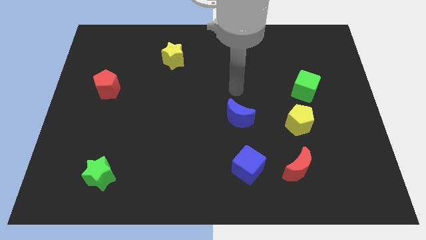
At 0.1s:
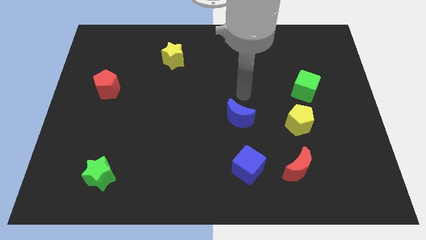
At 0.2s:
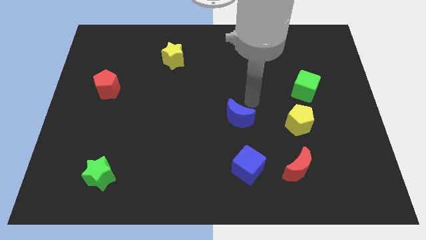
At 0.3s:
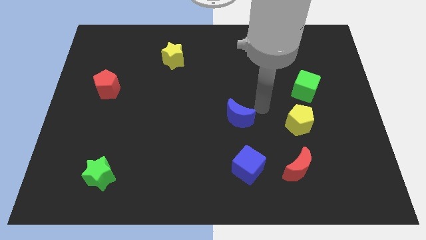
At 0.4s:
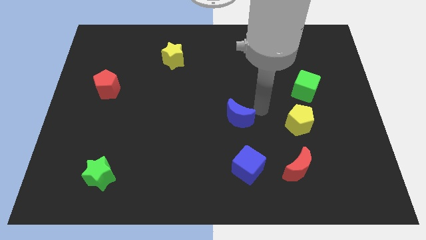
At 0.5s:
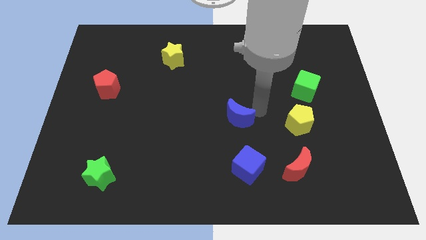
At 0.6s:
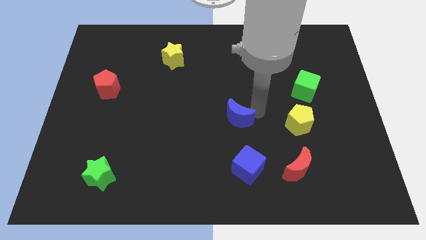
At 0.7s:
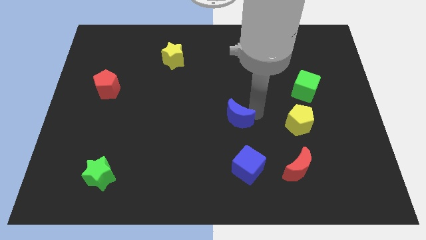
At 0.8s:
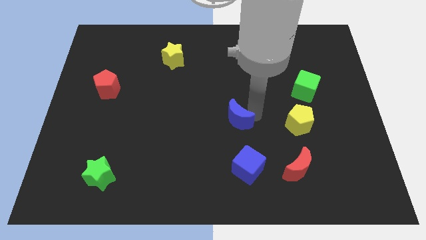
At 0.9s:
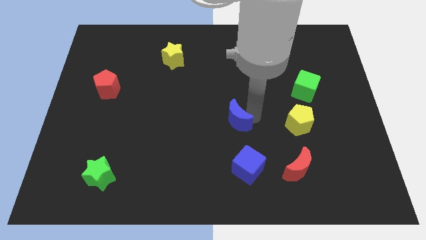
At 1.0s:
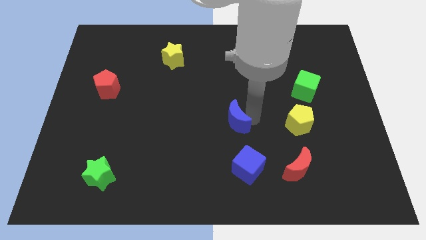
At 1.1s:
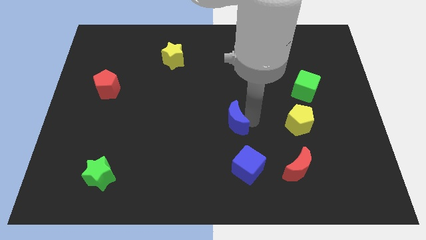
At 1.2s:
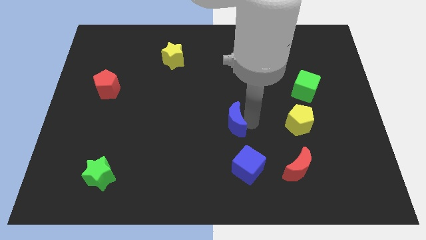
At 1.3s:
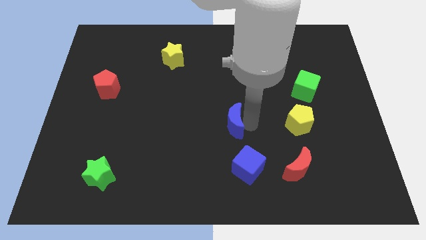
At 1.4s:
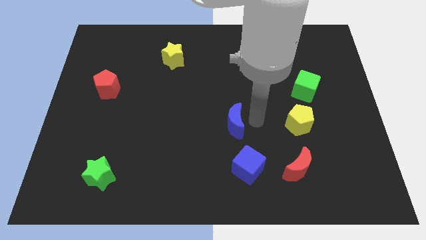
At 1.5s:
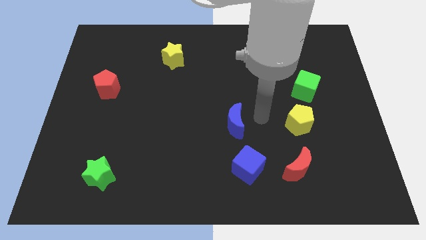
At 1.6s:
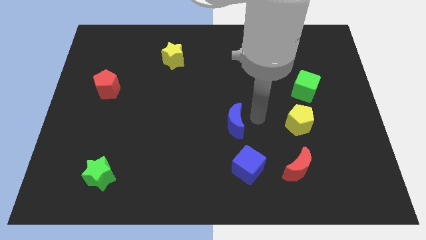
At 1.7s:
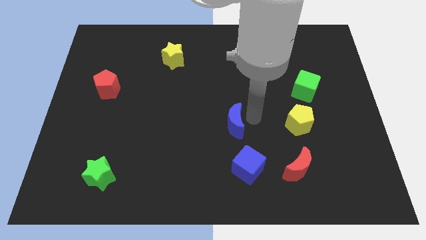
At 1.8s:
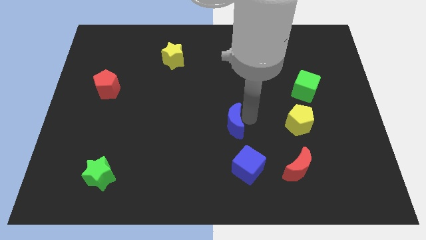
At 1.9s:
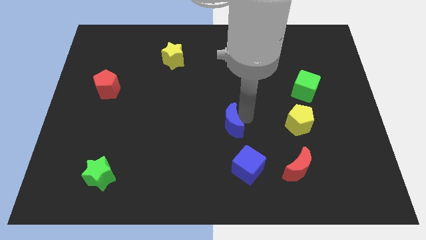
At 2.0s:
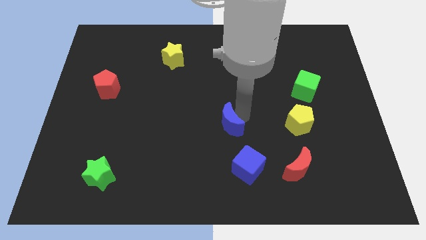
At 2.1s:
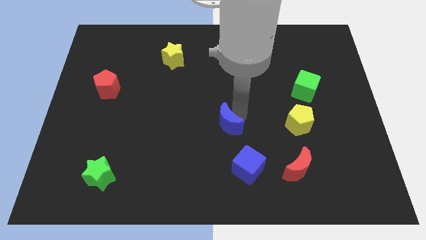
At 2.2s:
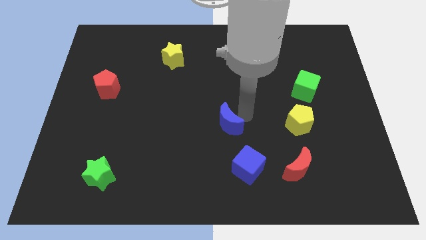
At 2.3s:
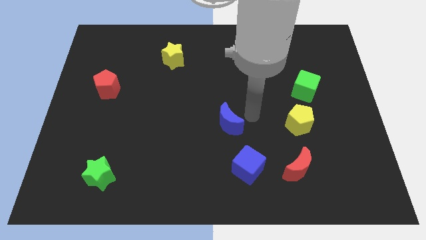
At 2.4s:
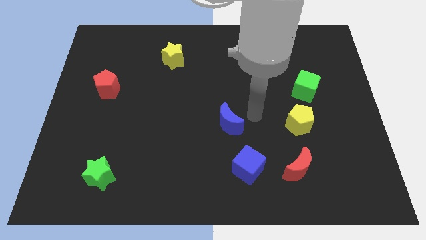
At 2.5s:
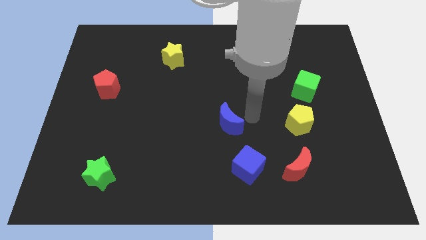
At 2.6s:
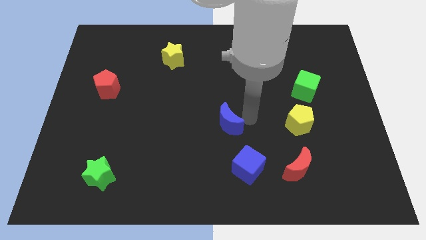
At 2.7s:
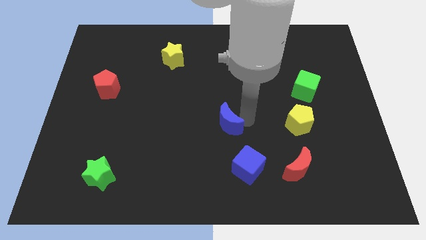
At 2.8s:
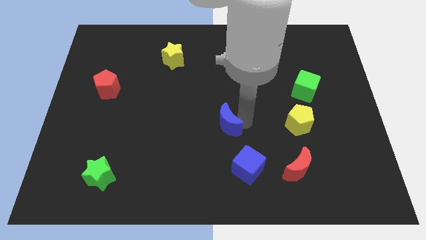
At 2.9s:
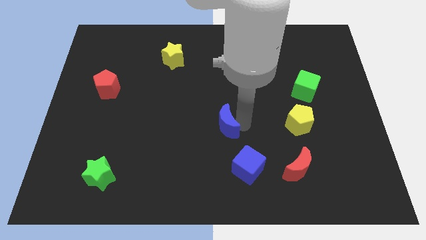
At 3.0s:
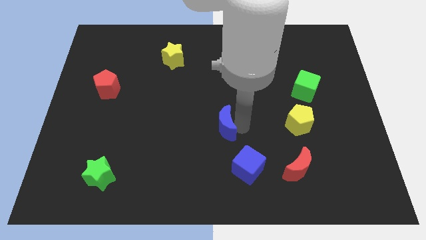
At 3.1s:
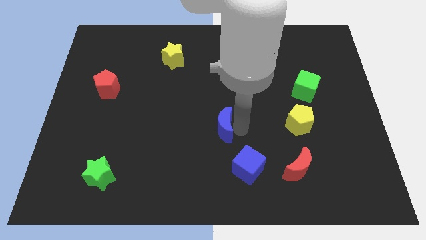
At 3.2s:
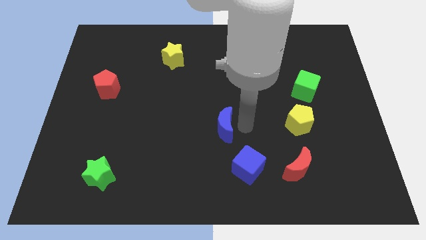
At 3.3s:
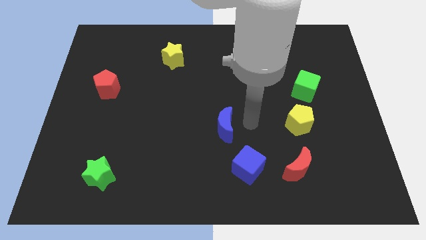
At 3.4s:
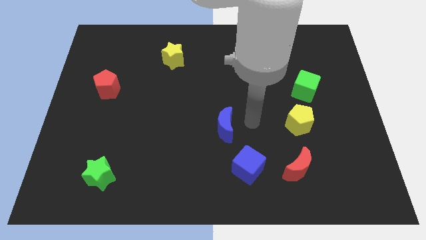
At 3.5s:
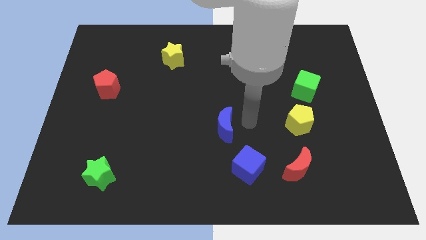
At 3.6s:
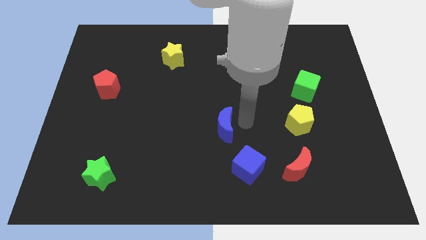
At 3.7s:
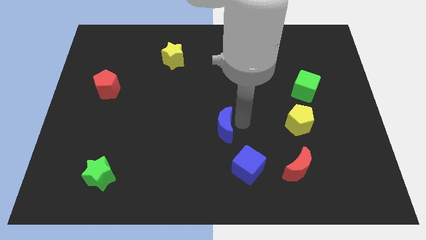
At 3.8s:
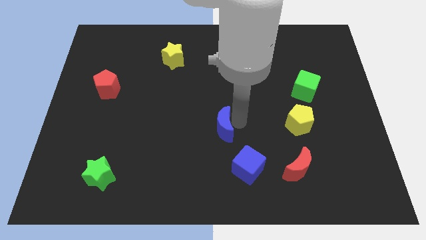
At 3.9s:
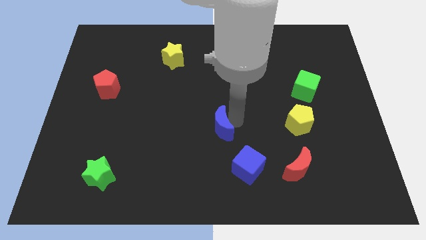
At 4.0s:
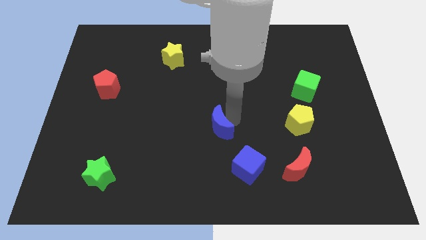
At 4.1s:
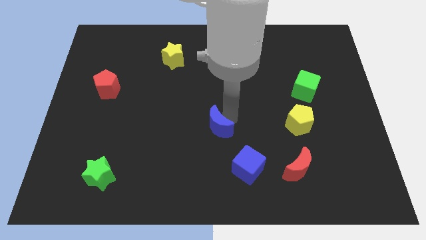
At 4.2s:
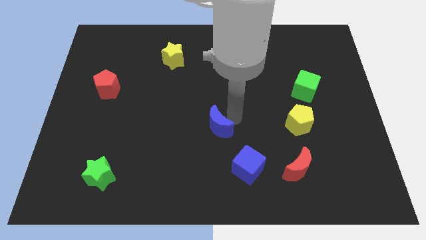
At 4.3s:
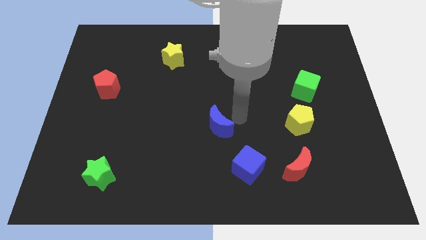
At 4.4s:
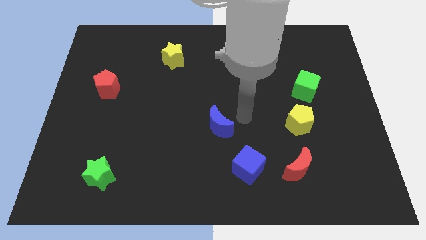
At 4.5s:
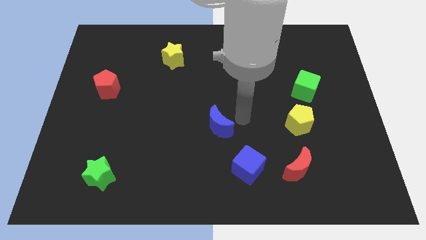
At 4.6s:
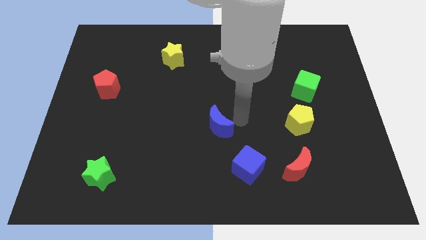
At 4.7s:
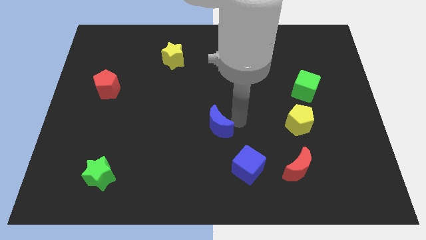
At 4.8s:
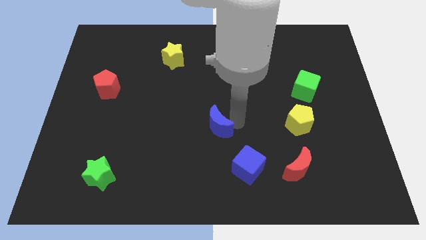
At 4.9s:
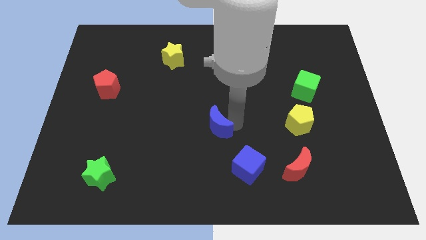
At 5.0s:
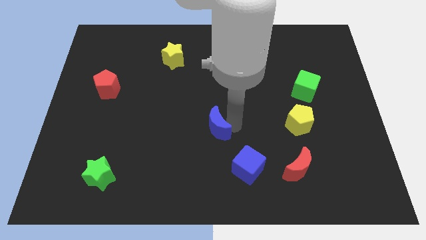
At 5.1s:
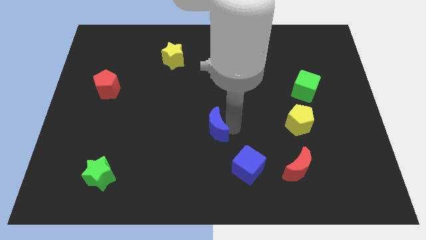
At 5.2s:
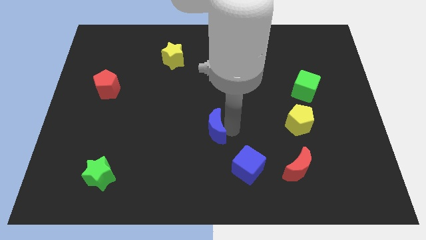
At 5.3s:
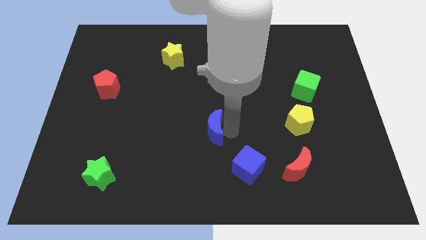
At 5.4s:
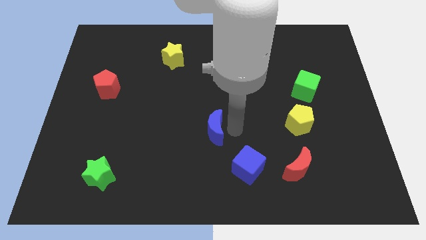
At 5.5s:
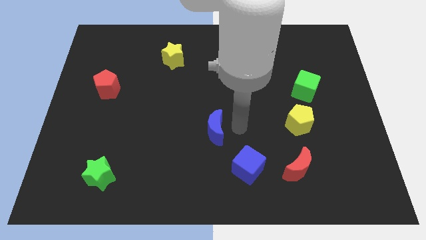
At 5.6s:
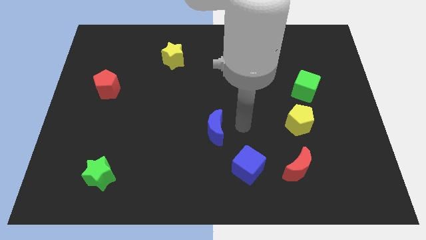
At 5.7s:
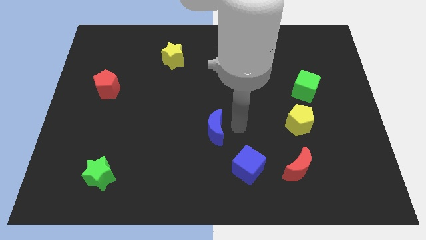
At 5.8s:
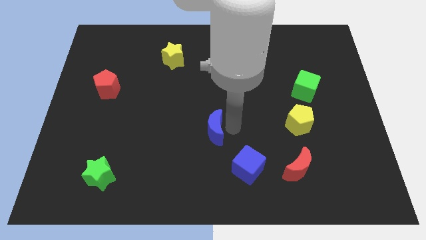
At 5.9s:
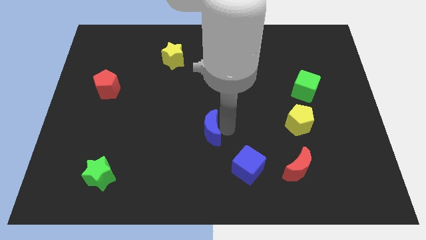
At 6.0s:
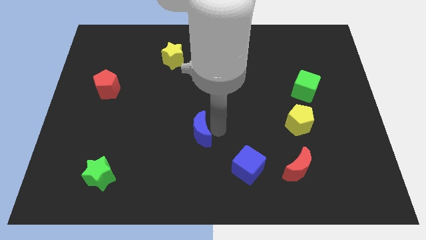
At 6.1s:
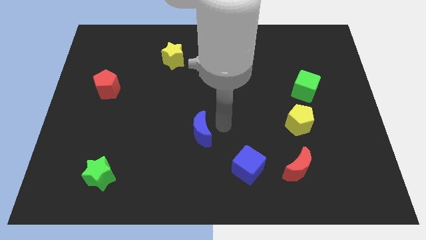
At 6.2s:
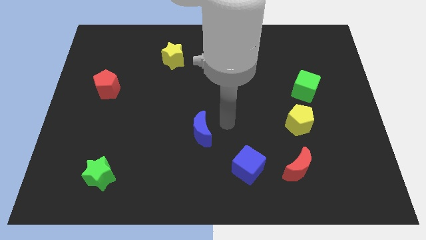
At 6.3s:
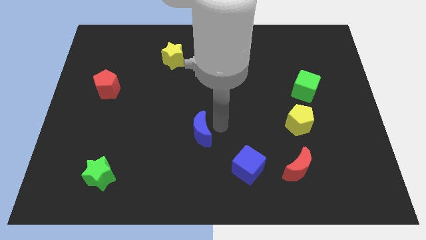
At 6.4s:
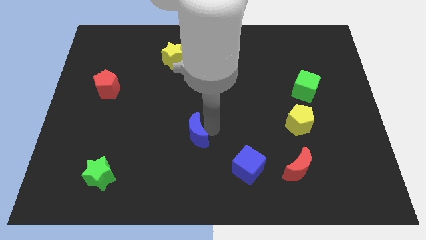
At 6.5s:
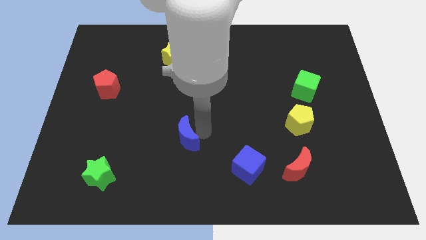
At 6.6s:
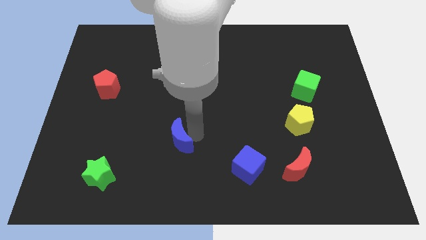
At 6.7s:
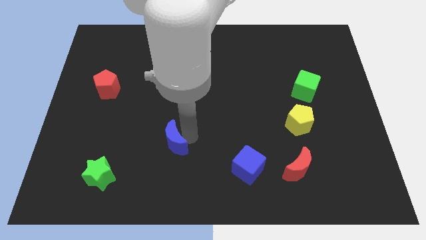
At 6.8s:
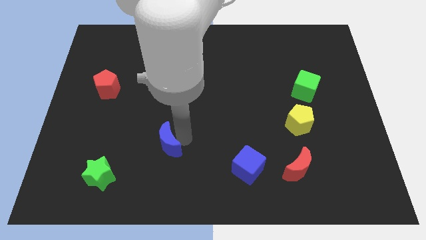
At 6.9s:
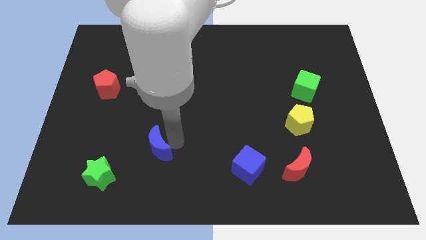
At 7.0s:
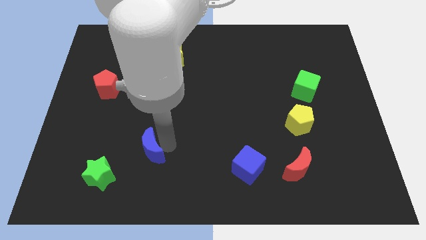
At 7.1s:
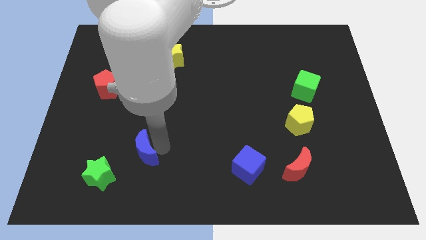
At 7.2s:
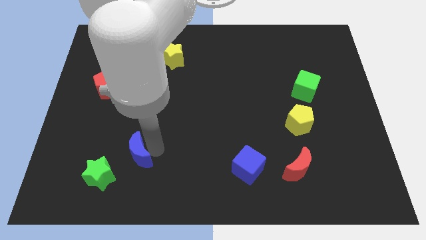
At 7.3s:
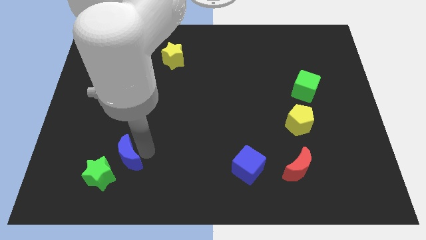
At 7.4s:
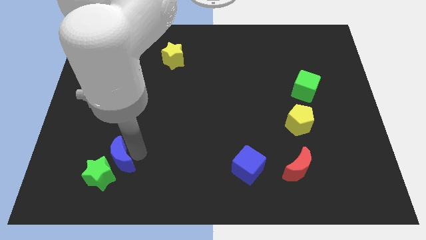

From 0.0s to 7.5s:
move the blue moon towards the green star

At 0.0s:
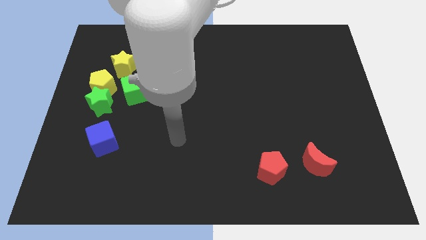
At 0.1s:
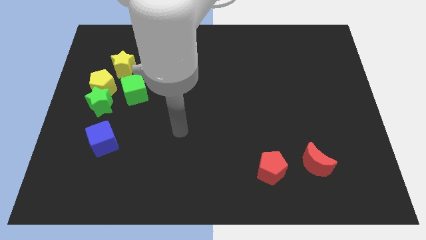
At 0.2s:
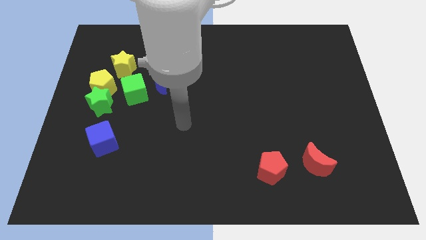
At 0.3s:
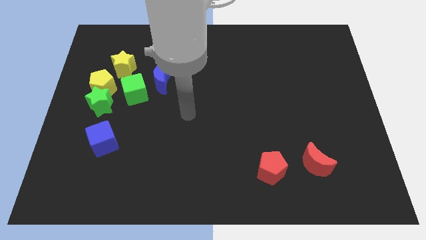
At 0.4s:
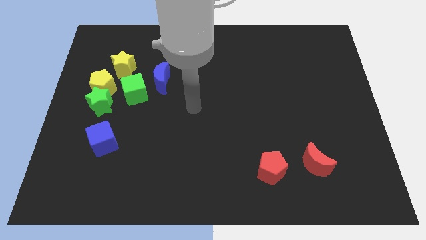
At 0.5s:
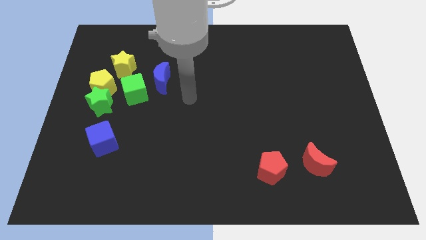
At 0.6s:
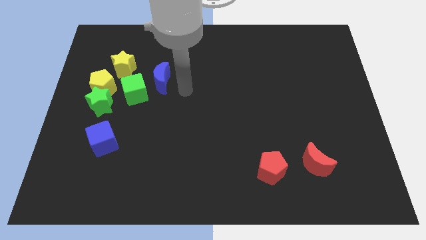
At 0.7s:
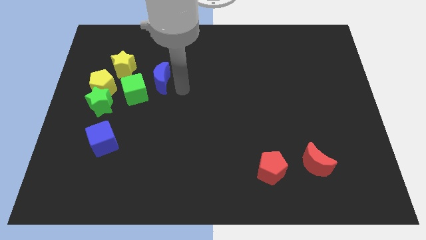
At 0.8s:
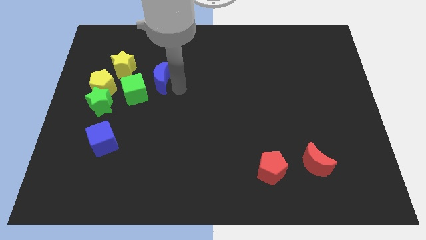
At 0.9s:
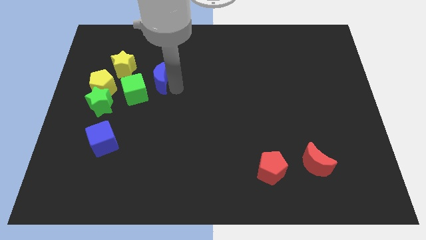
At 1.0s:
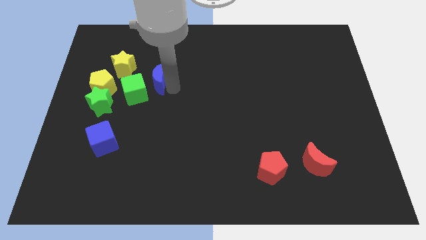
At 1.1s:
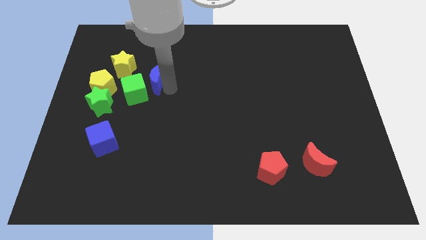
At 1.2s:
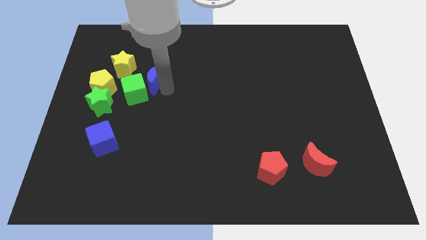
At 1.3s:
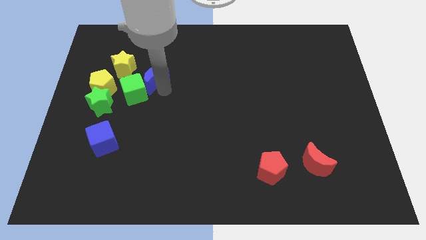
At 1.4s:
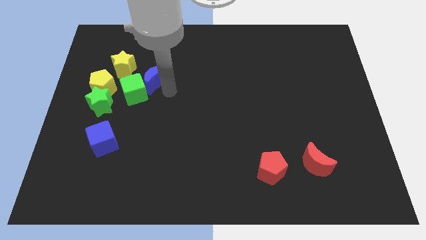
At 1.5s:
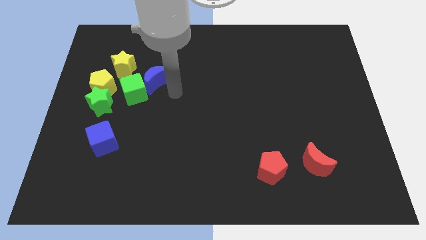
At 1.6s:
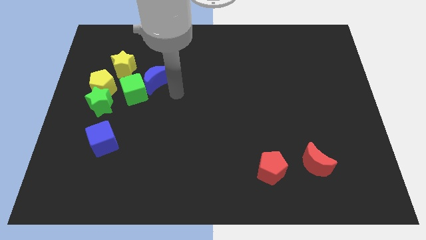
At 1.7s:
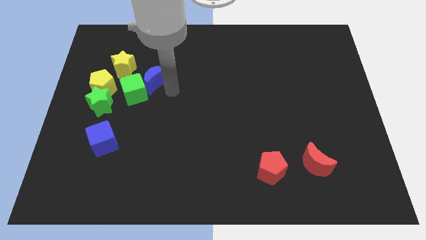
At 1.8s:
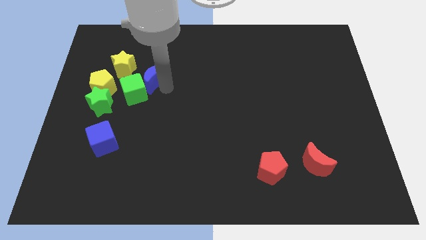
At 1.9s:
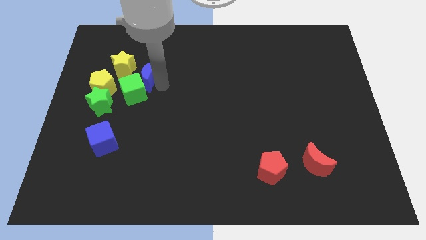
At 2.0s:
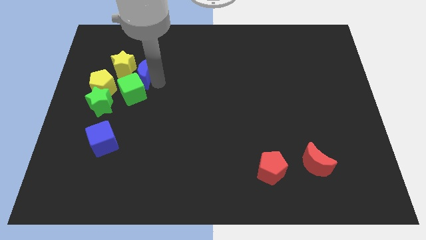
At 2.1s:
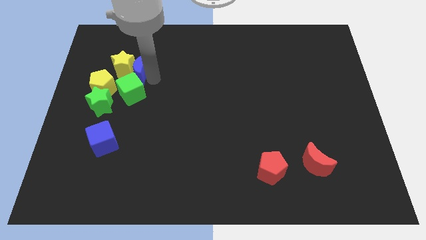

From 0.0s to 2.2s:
push the blue moon close to the yellow star
